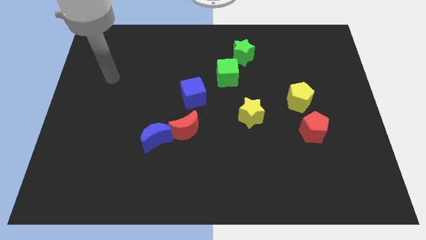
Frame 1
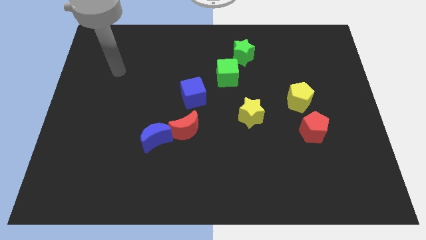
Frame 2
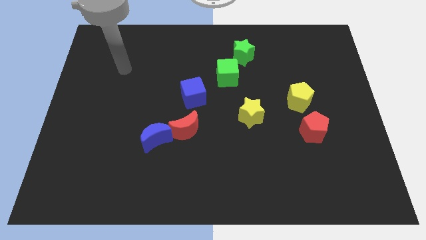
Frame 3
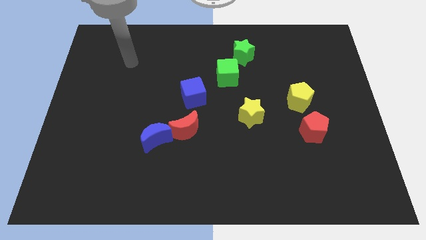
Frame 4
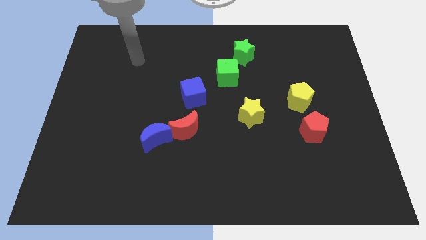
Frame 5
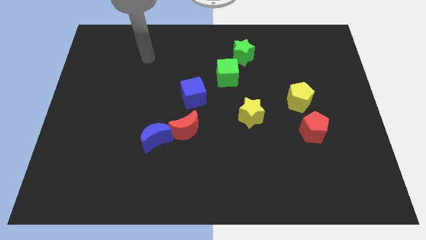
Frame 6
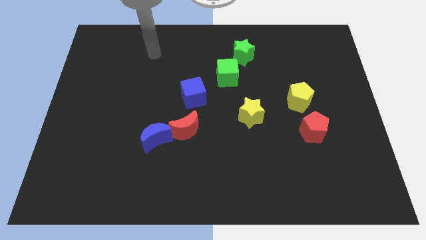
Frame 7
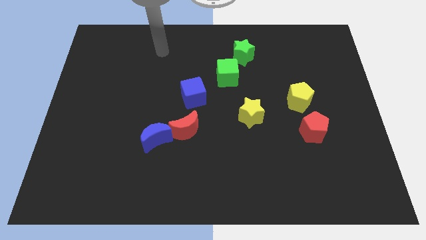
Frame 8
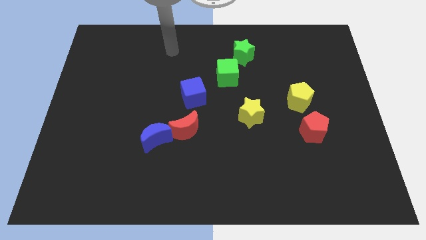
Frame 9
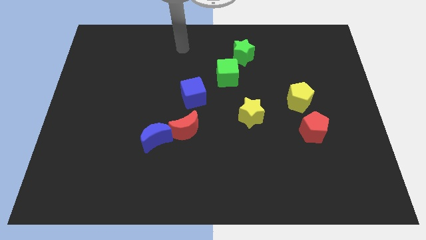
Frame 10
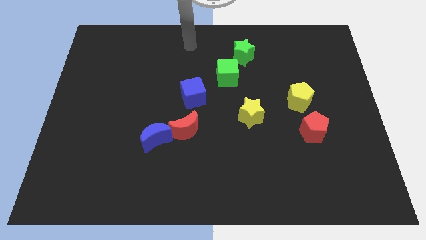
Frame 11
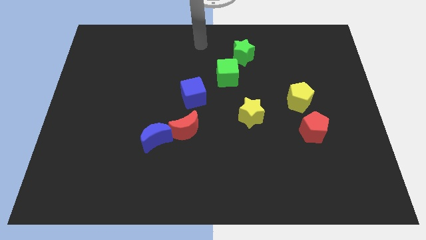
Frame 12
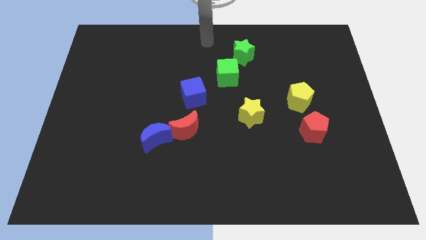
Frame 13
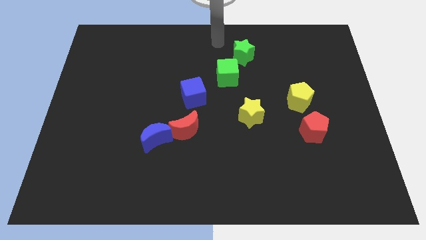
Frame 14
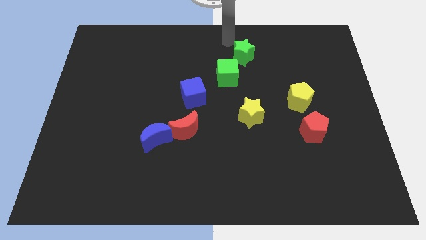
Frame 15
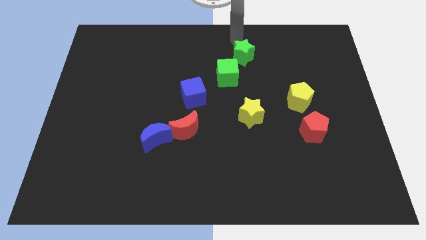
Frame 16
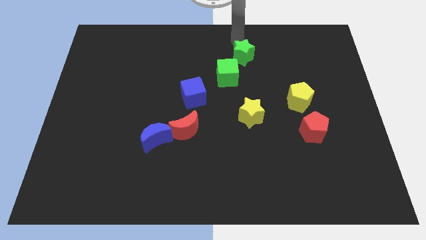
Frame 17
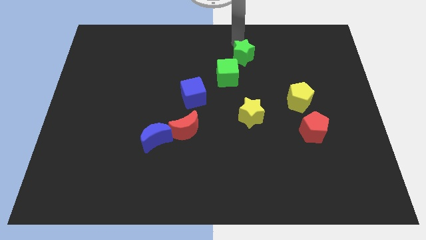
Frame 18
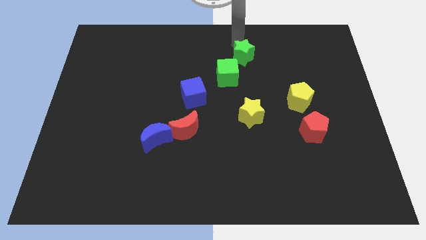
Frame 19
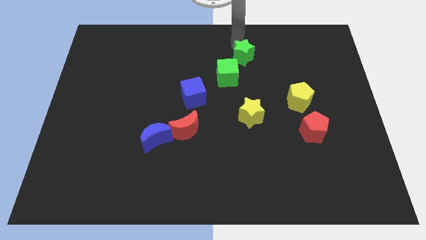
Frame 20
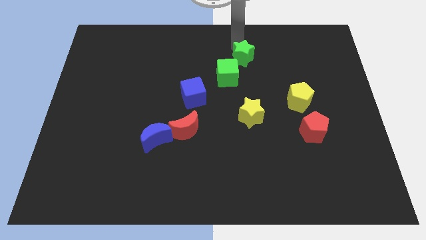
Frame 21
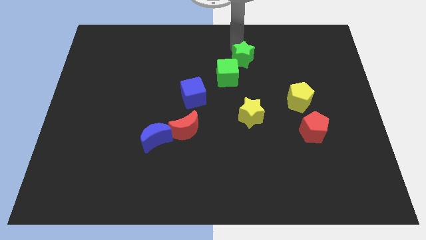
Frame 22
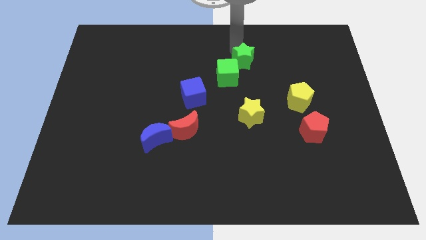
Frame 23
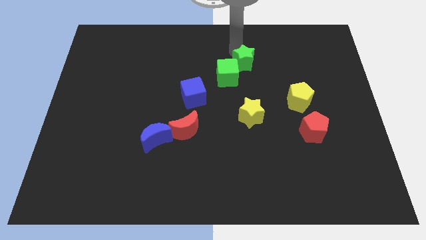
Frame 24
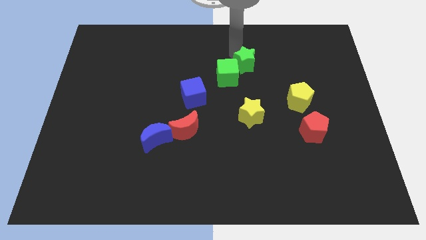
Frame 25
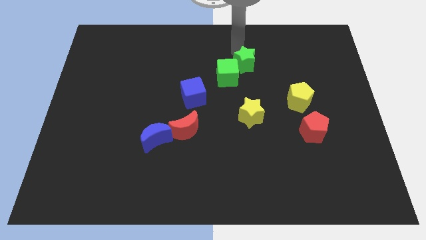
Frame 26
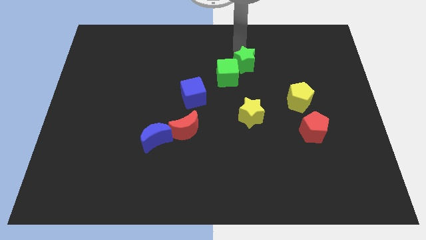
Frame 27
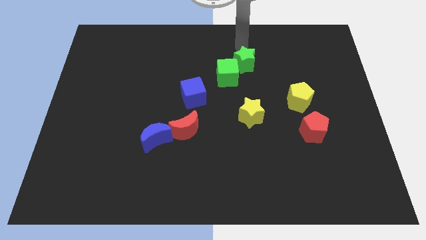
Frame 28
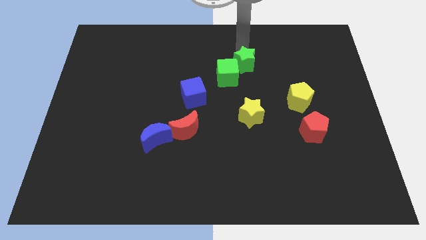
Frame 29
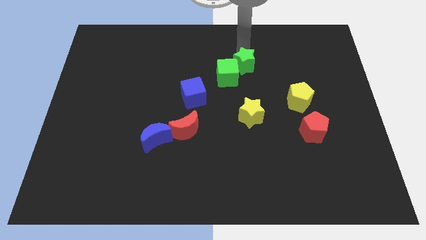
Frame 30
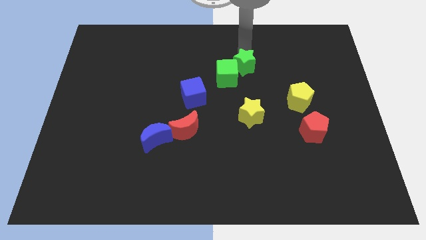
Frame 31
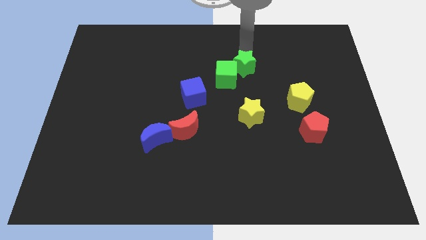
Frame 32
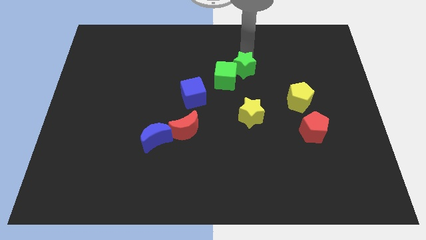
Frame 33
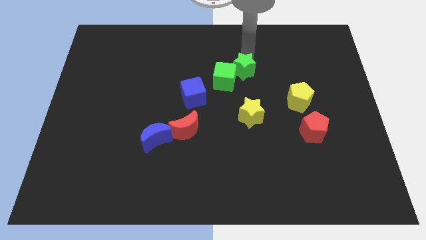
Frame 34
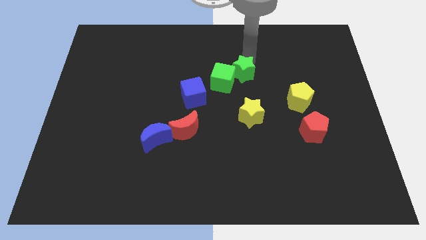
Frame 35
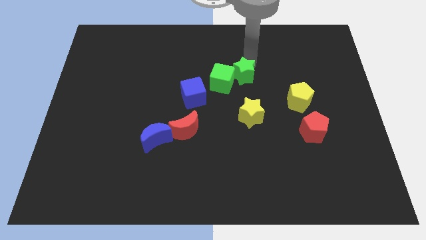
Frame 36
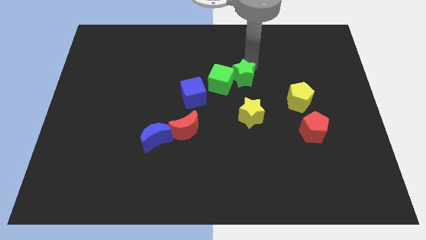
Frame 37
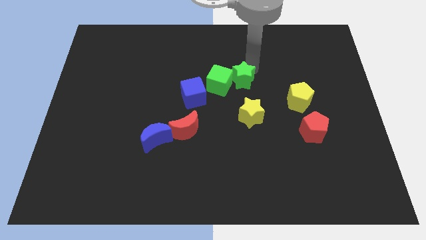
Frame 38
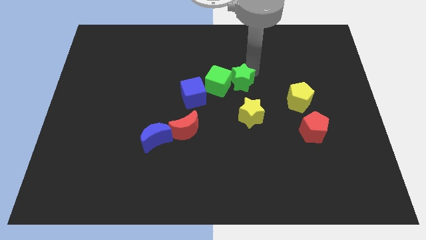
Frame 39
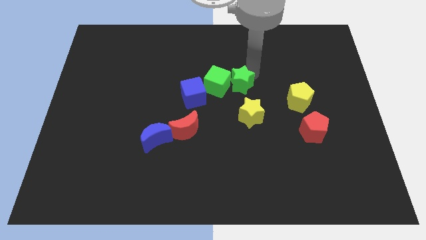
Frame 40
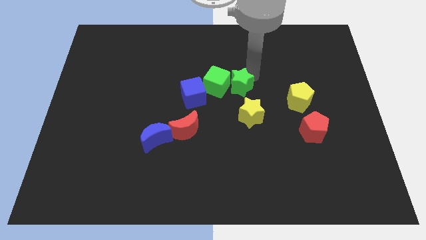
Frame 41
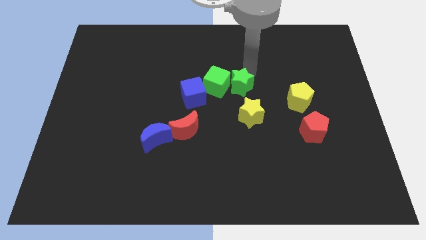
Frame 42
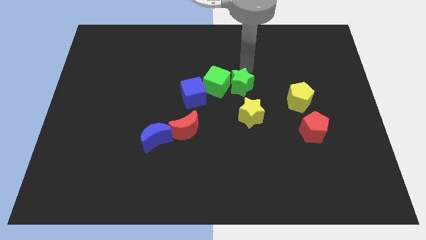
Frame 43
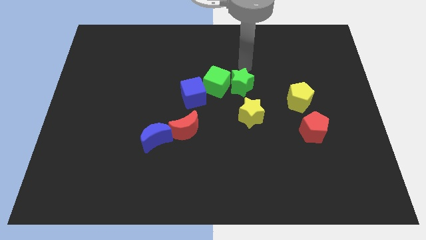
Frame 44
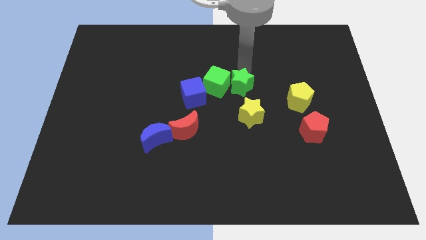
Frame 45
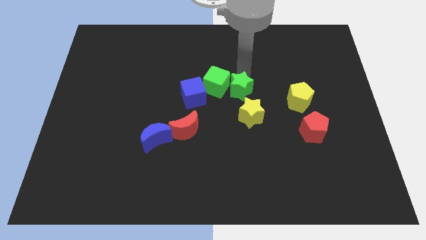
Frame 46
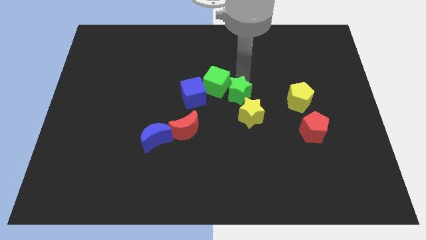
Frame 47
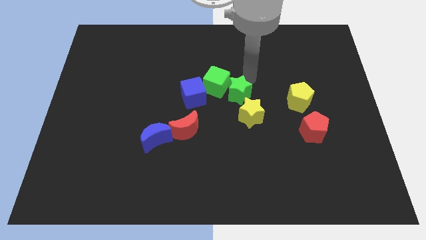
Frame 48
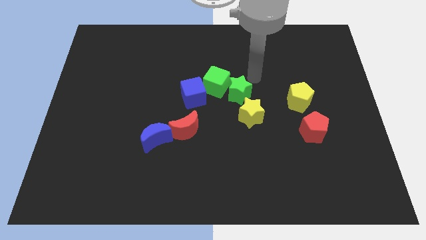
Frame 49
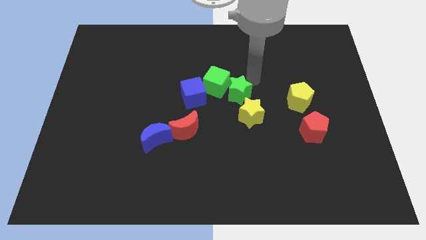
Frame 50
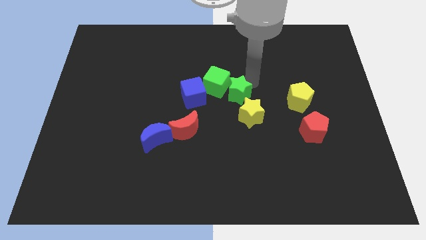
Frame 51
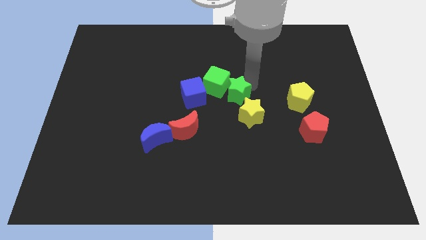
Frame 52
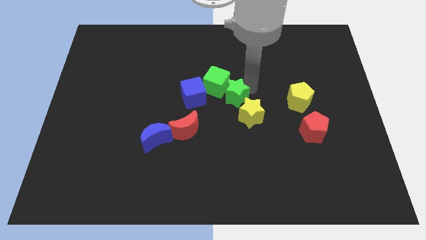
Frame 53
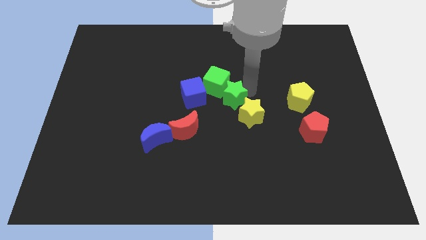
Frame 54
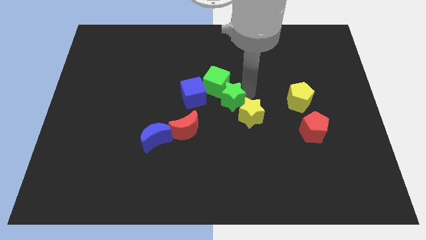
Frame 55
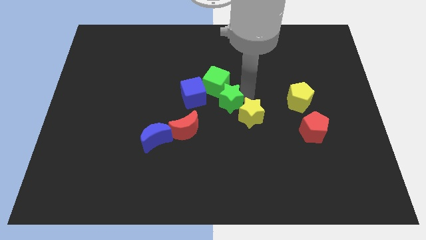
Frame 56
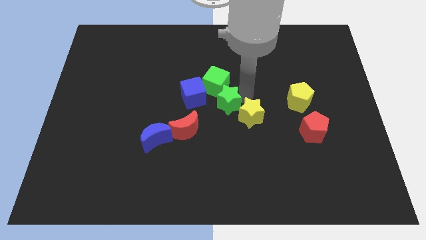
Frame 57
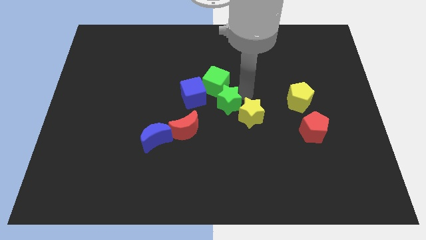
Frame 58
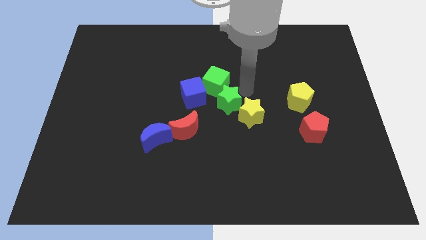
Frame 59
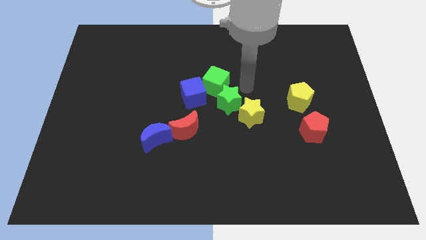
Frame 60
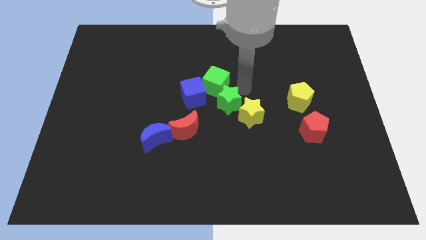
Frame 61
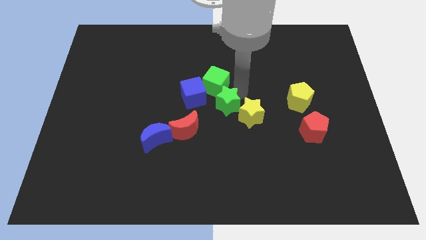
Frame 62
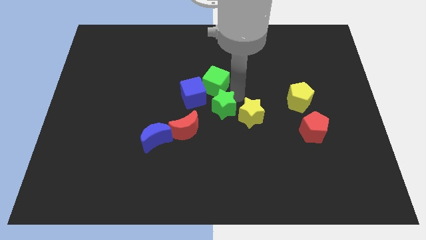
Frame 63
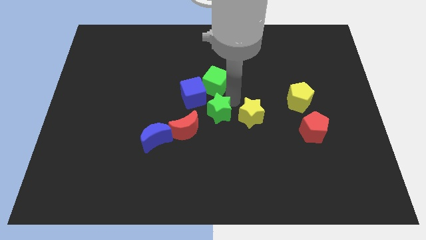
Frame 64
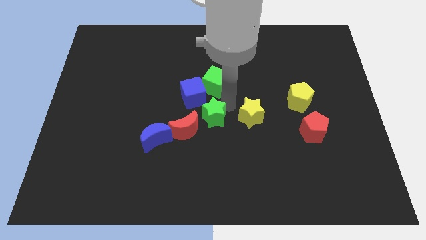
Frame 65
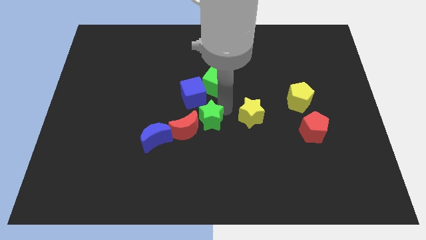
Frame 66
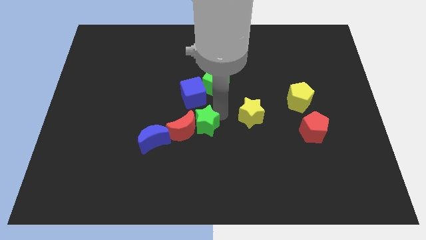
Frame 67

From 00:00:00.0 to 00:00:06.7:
slide the green star to the red moon

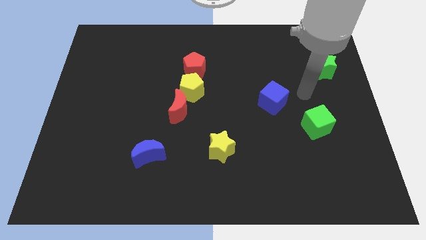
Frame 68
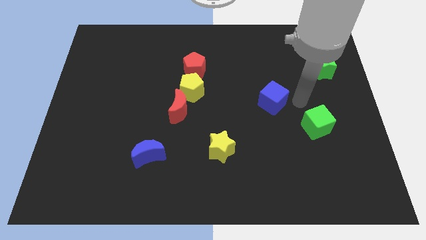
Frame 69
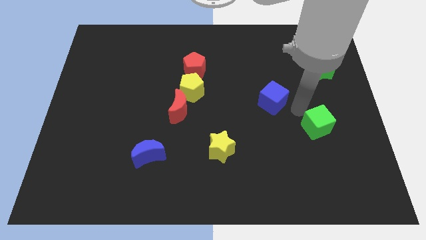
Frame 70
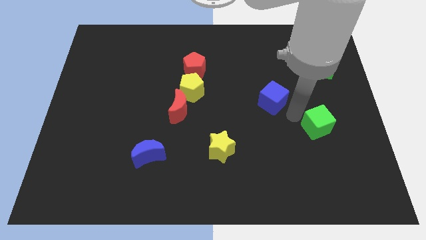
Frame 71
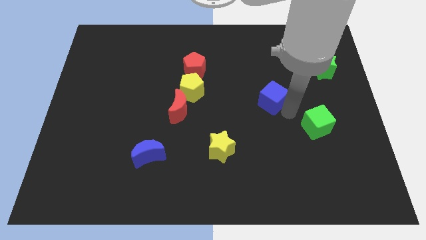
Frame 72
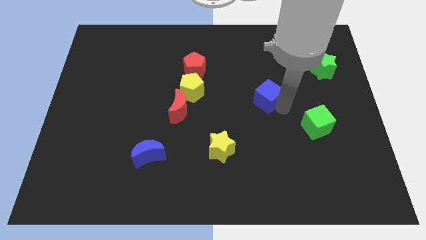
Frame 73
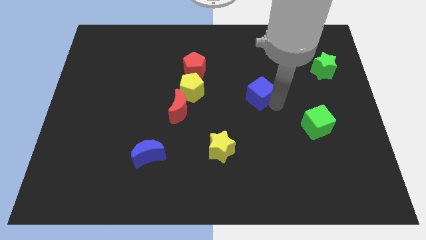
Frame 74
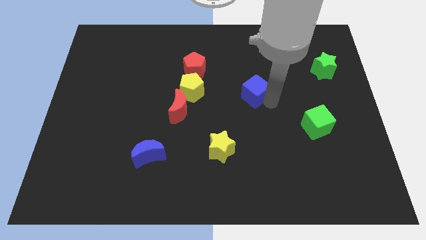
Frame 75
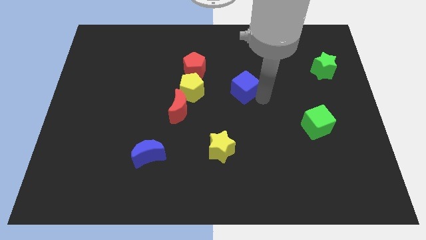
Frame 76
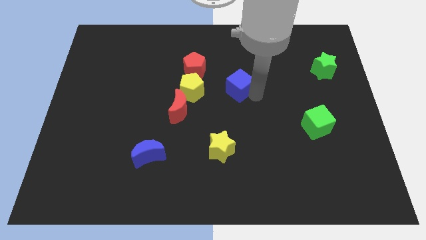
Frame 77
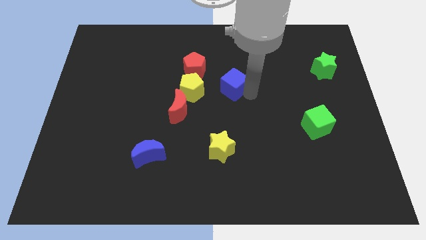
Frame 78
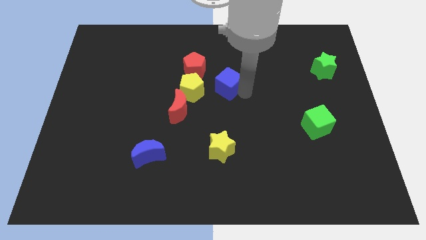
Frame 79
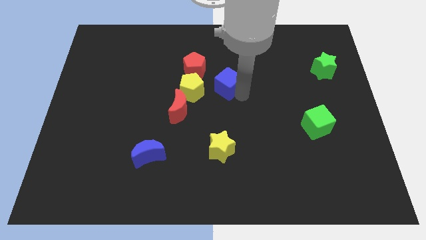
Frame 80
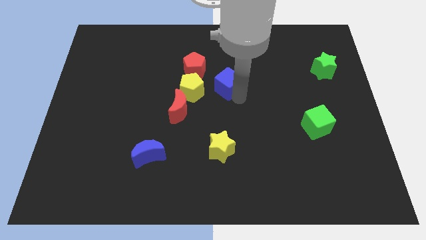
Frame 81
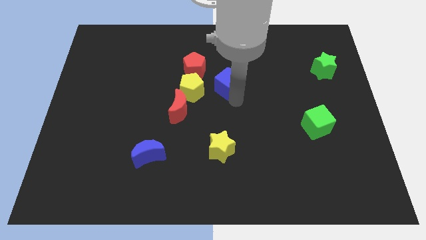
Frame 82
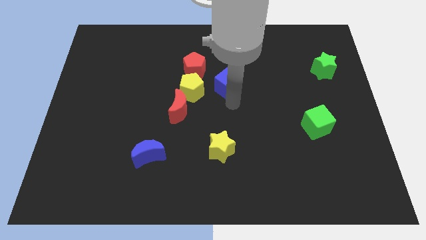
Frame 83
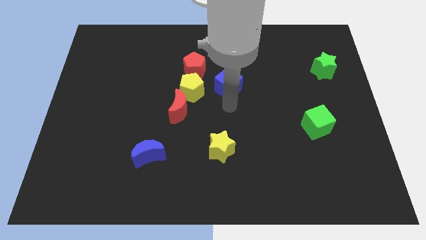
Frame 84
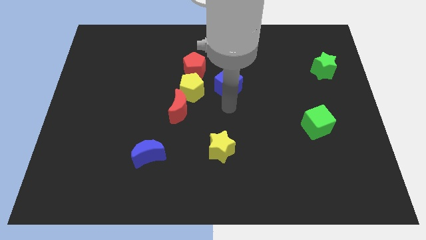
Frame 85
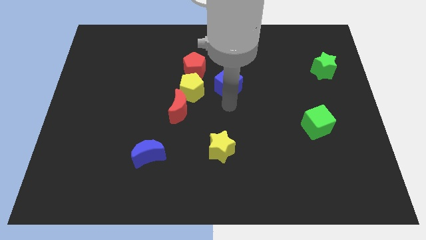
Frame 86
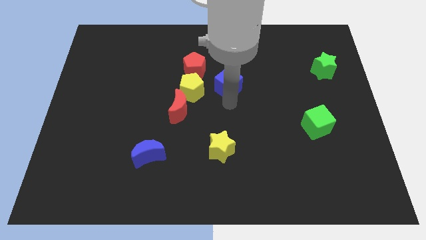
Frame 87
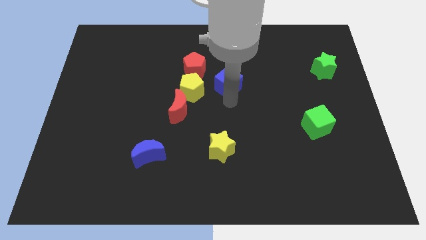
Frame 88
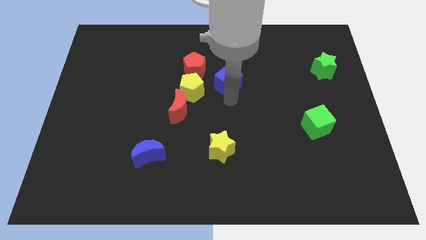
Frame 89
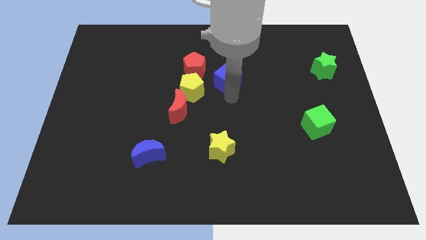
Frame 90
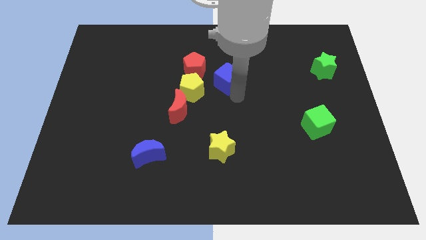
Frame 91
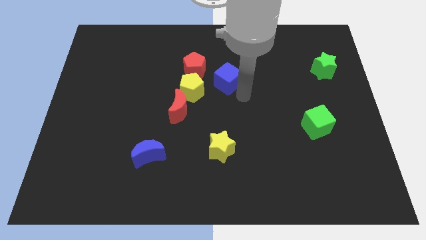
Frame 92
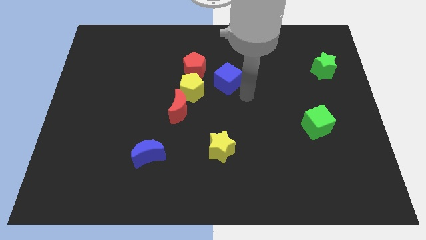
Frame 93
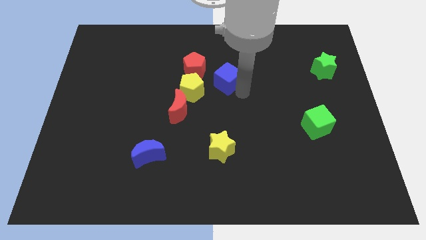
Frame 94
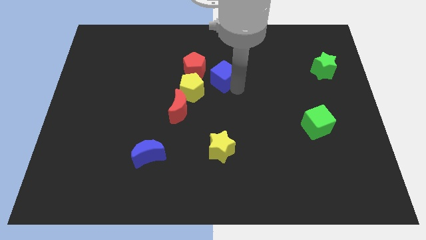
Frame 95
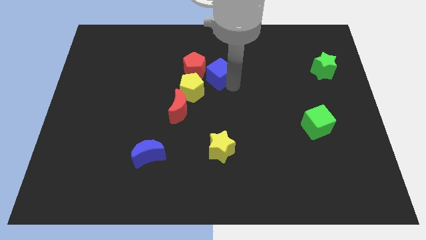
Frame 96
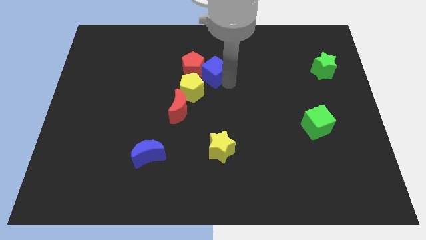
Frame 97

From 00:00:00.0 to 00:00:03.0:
put the blue cube towards the red pentagon
